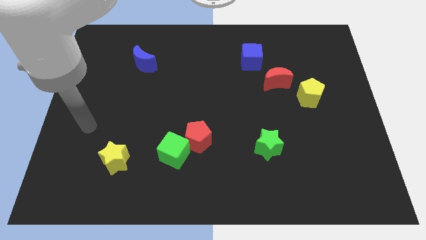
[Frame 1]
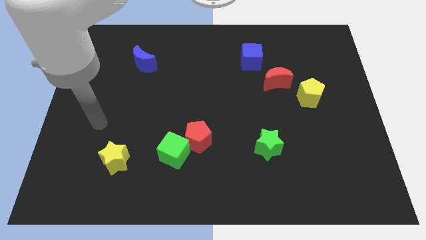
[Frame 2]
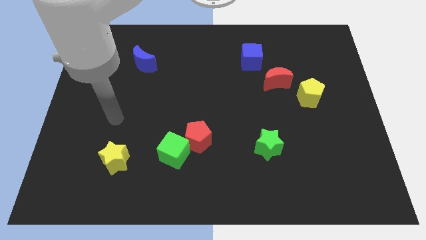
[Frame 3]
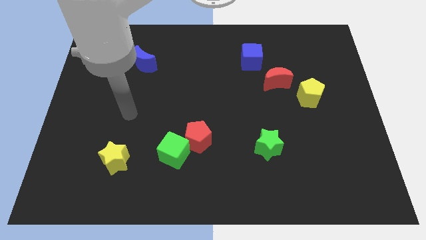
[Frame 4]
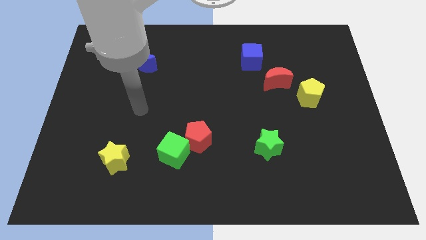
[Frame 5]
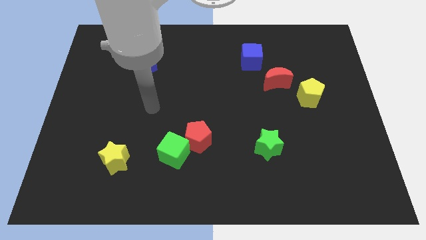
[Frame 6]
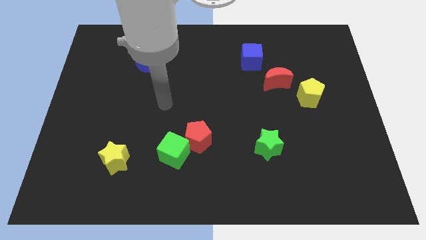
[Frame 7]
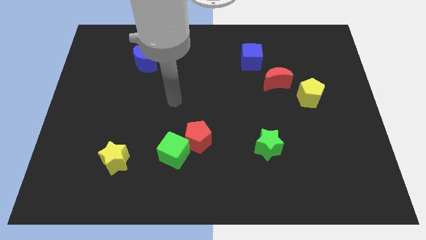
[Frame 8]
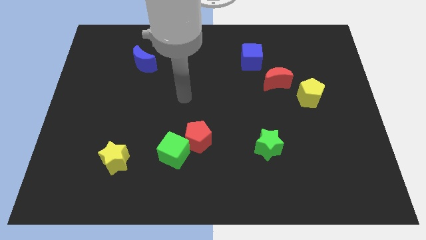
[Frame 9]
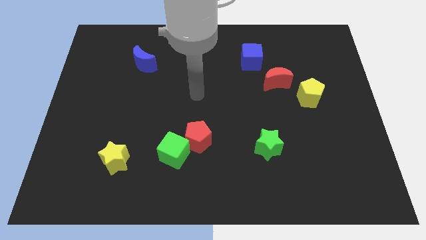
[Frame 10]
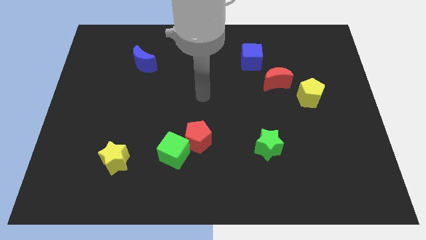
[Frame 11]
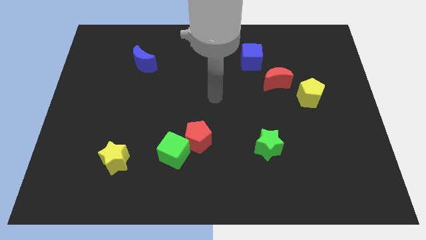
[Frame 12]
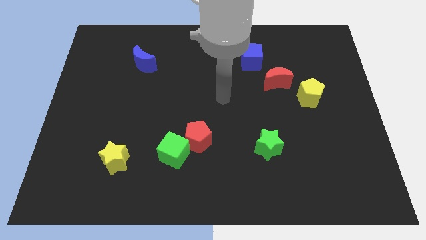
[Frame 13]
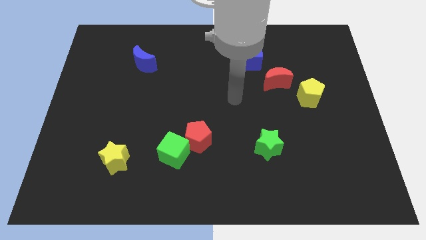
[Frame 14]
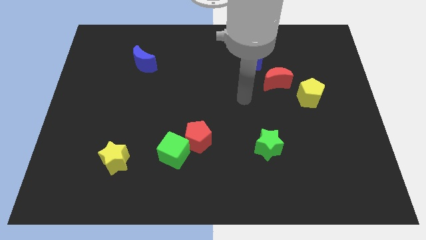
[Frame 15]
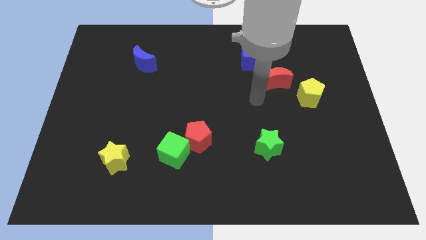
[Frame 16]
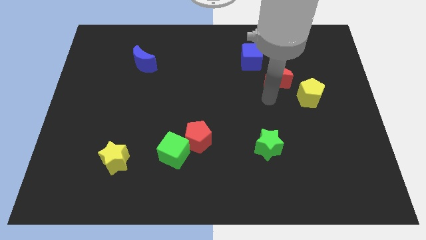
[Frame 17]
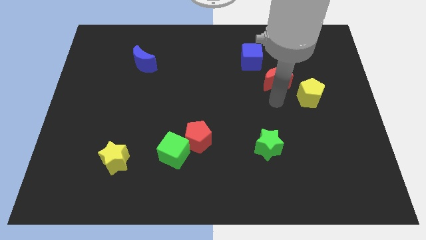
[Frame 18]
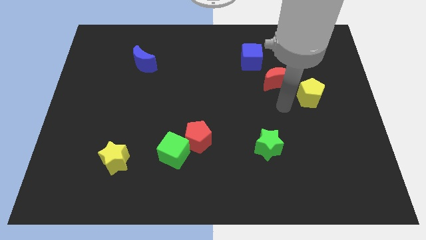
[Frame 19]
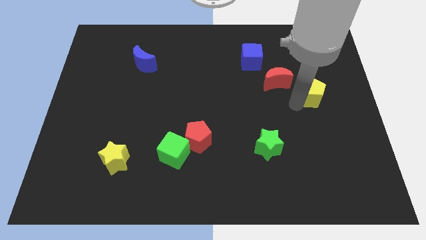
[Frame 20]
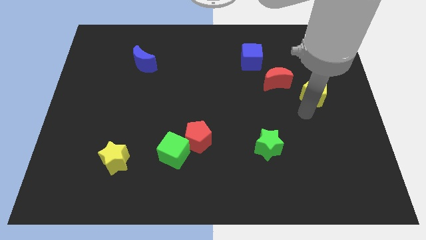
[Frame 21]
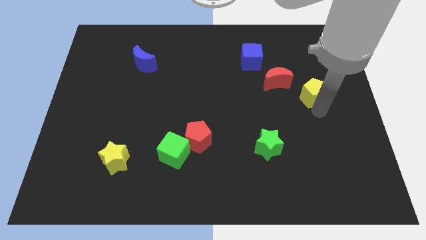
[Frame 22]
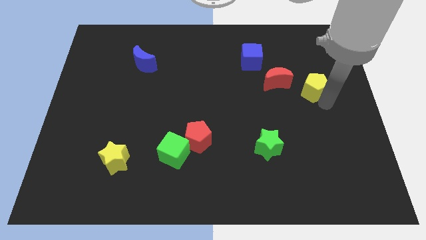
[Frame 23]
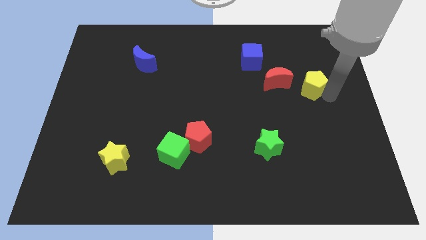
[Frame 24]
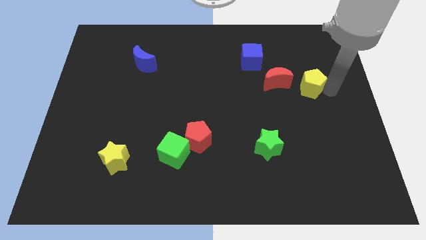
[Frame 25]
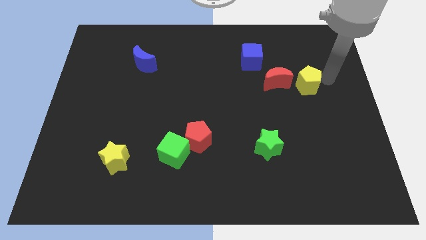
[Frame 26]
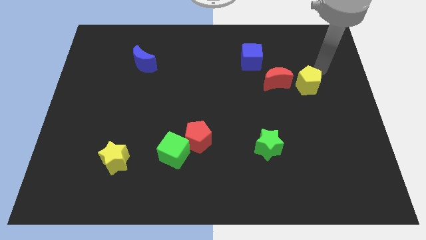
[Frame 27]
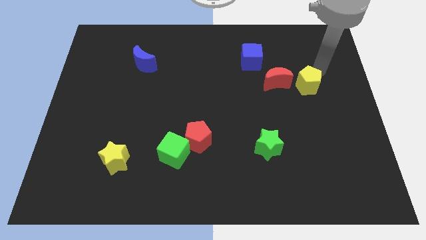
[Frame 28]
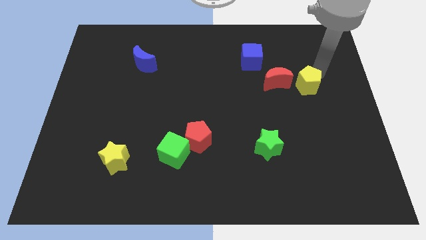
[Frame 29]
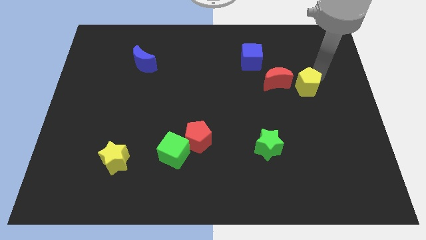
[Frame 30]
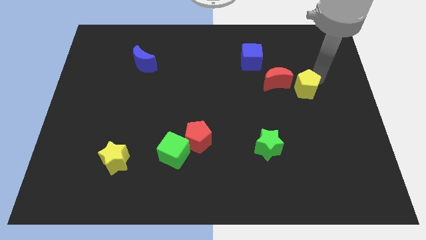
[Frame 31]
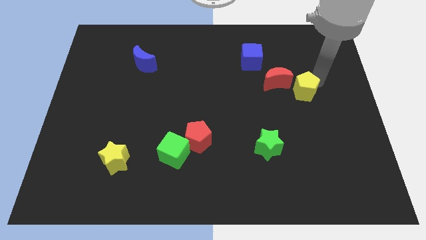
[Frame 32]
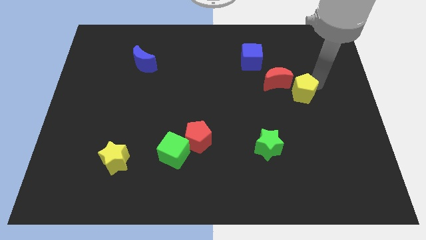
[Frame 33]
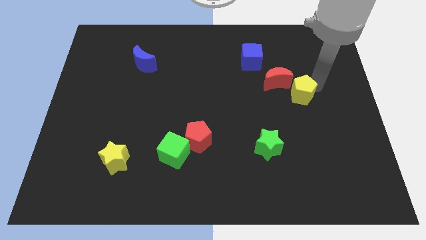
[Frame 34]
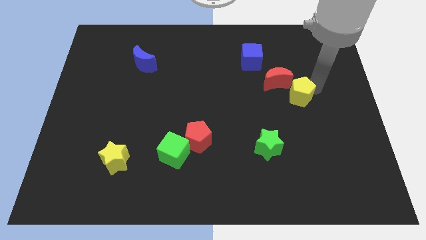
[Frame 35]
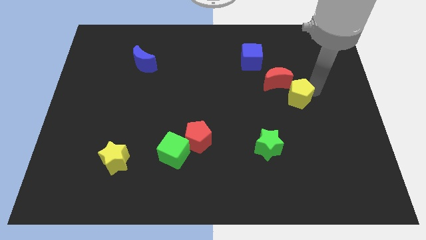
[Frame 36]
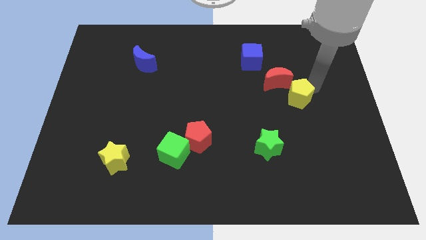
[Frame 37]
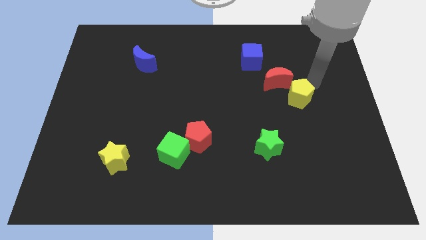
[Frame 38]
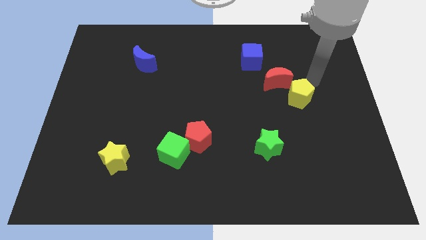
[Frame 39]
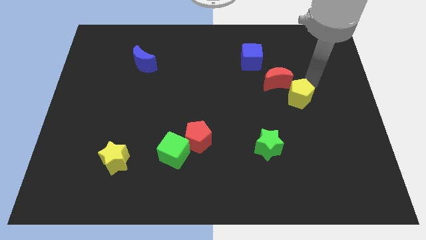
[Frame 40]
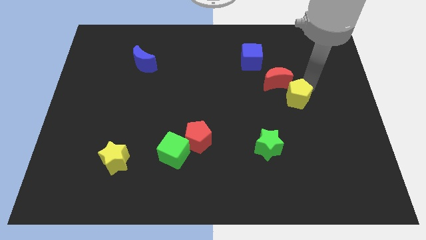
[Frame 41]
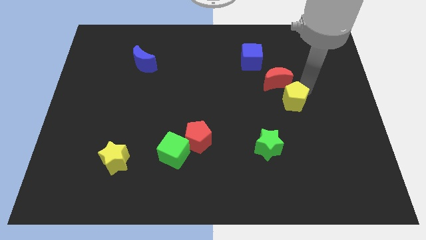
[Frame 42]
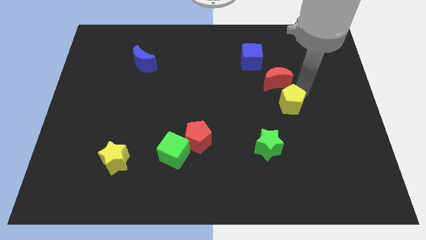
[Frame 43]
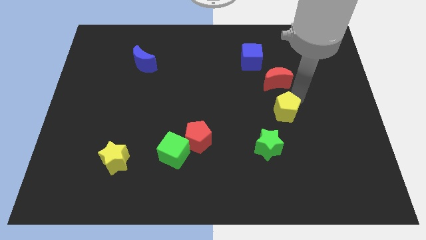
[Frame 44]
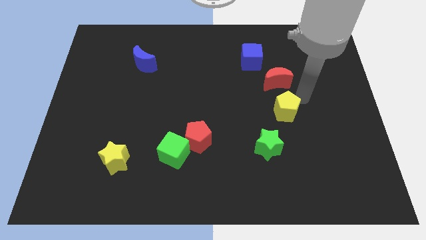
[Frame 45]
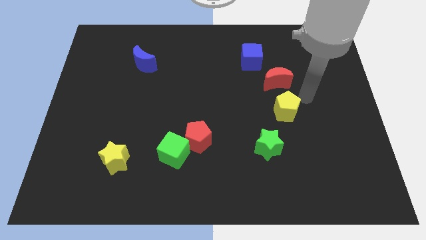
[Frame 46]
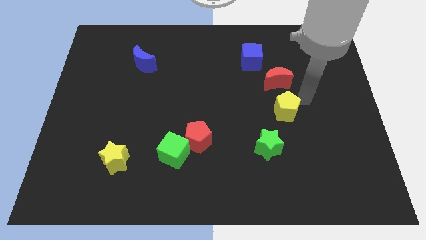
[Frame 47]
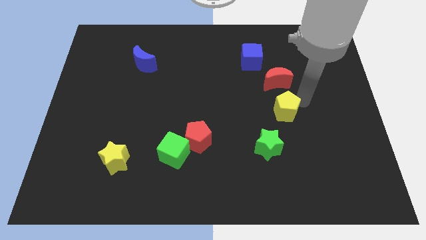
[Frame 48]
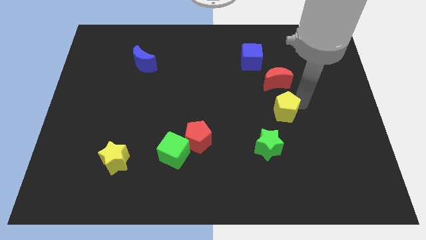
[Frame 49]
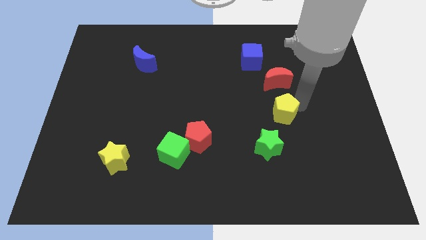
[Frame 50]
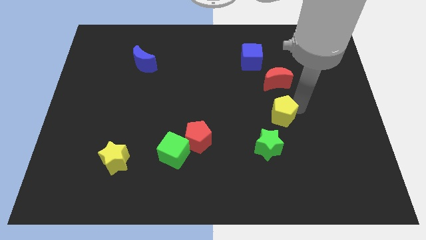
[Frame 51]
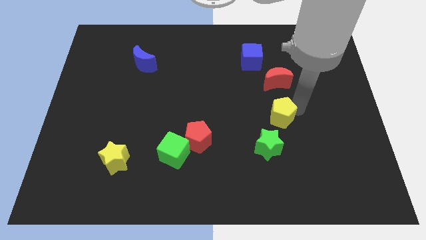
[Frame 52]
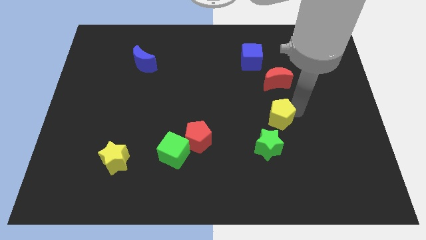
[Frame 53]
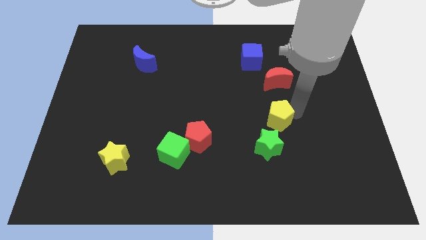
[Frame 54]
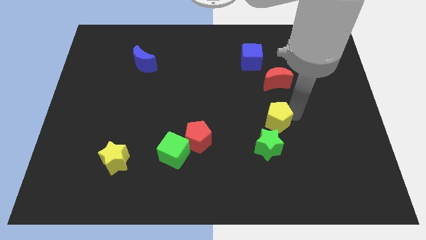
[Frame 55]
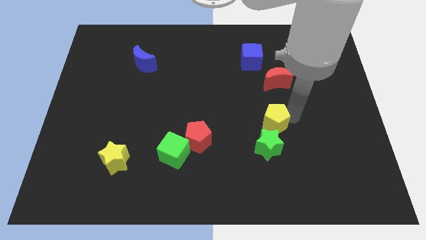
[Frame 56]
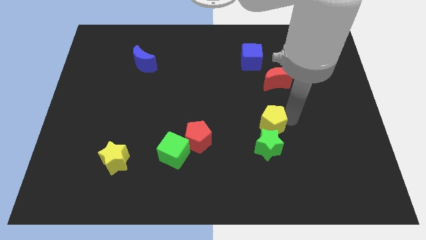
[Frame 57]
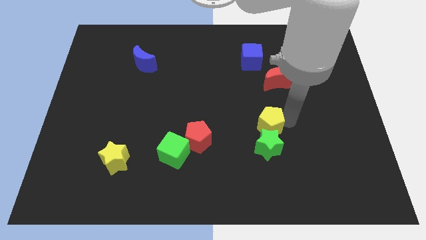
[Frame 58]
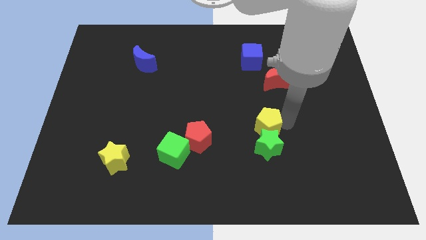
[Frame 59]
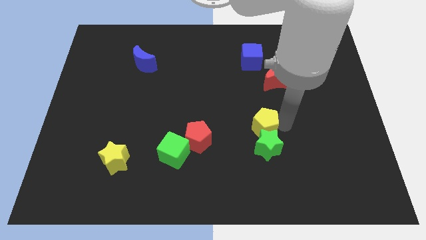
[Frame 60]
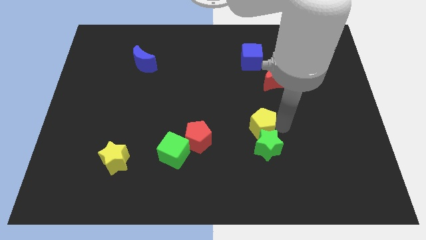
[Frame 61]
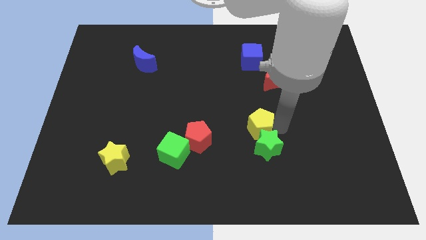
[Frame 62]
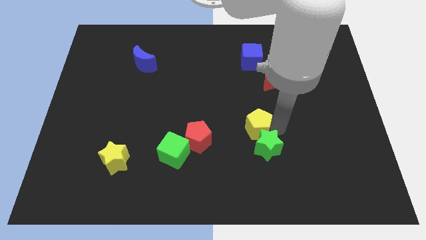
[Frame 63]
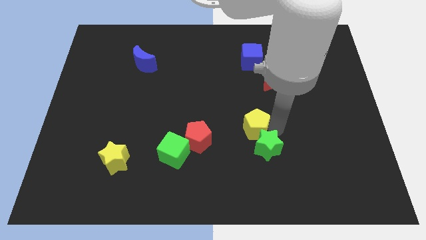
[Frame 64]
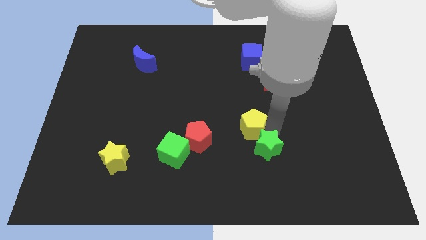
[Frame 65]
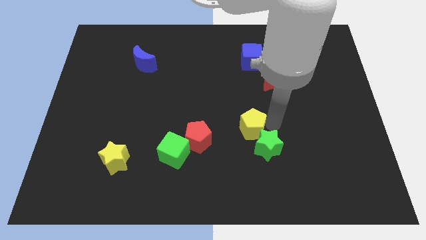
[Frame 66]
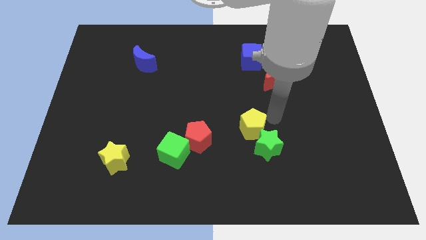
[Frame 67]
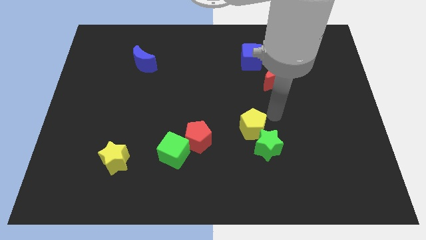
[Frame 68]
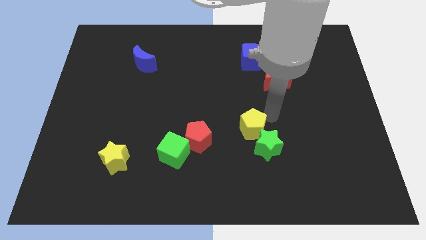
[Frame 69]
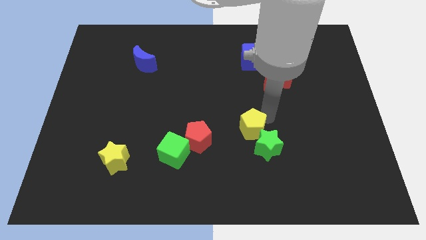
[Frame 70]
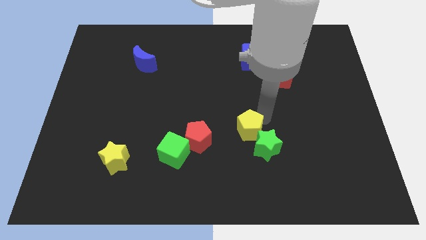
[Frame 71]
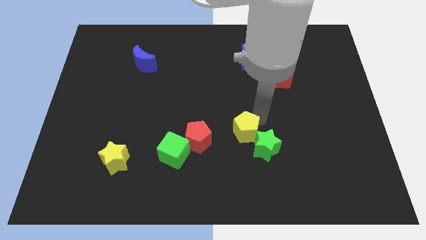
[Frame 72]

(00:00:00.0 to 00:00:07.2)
push the yellow pentagon to the left side of the green star
